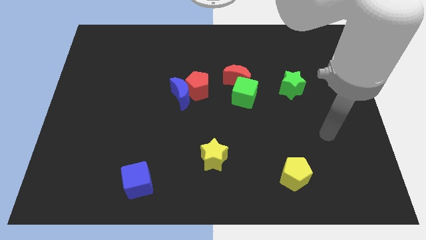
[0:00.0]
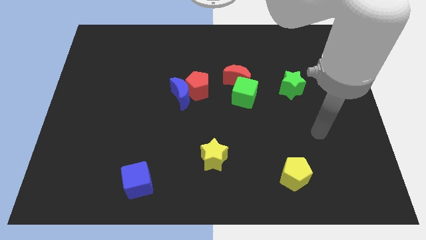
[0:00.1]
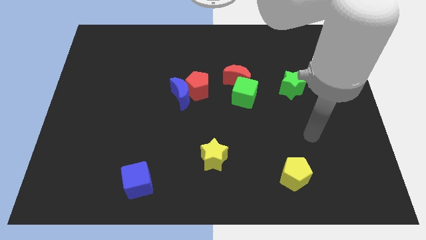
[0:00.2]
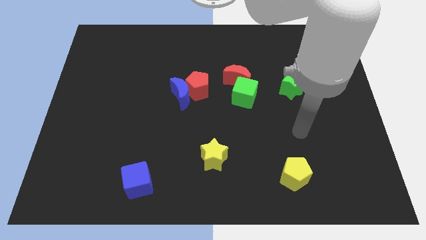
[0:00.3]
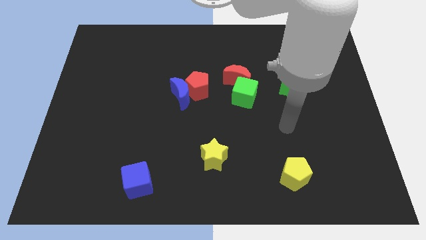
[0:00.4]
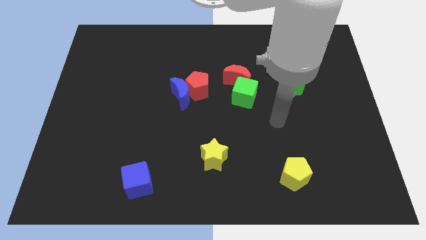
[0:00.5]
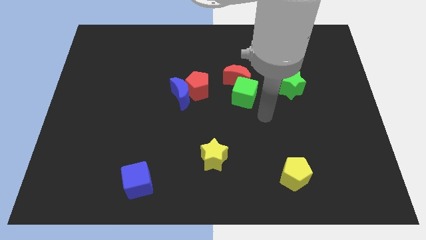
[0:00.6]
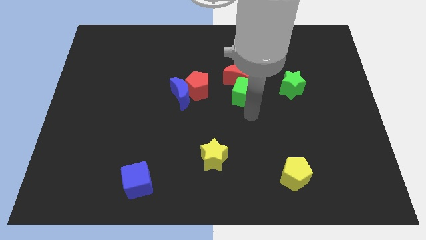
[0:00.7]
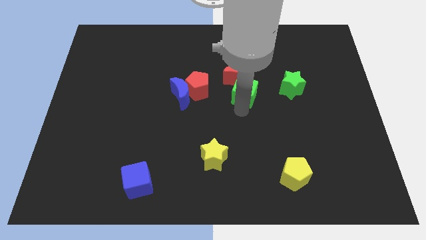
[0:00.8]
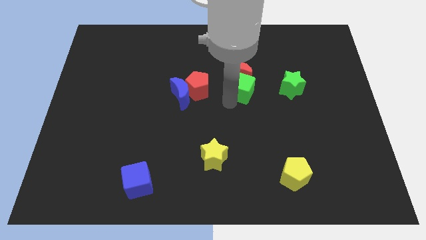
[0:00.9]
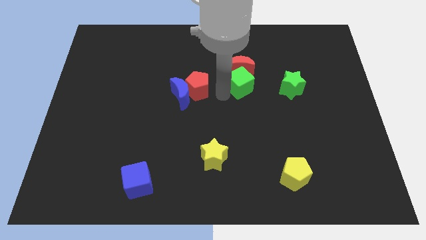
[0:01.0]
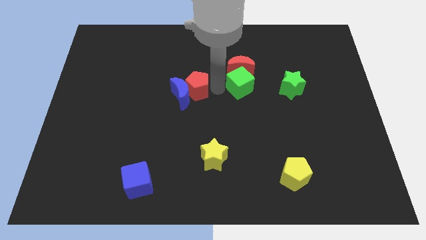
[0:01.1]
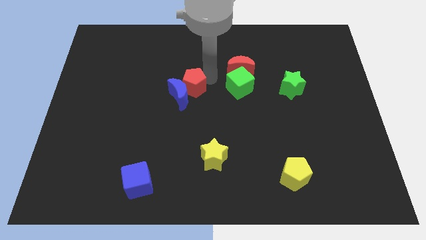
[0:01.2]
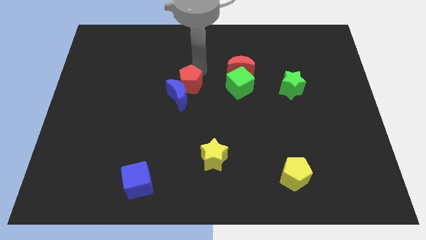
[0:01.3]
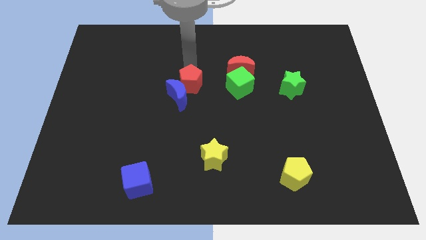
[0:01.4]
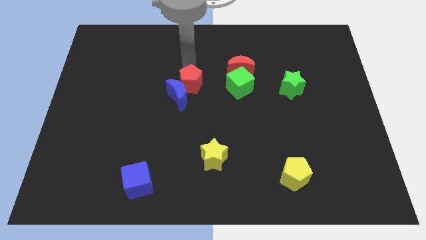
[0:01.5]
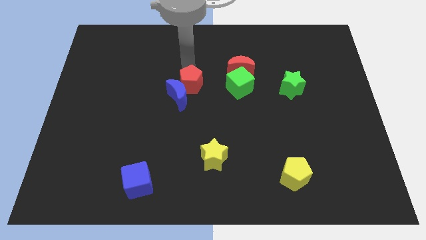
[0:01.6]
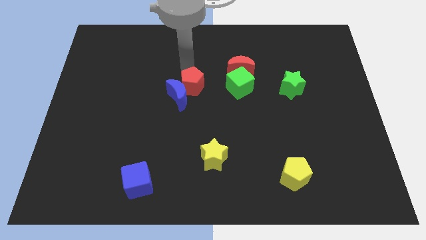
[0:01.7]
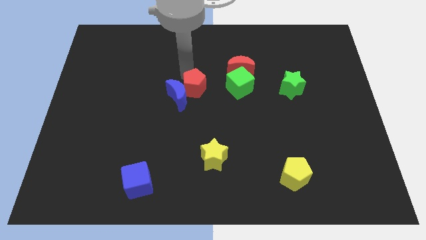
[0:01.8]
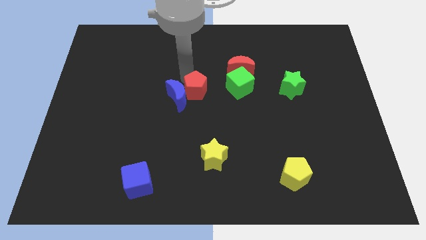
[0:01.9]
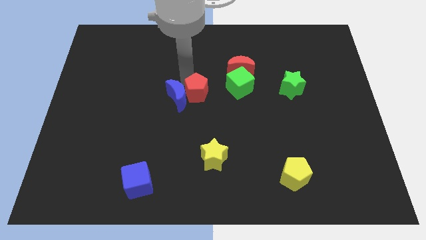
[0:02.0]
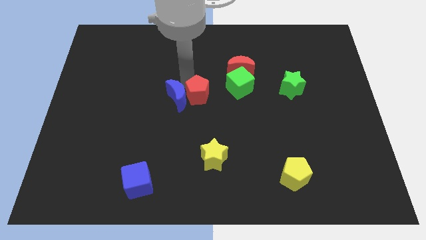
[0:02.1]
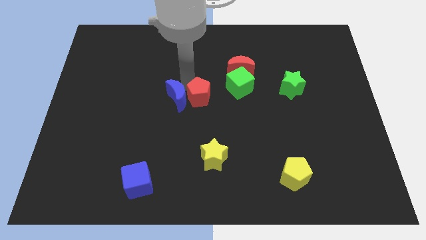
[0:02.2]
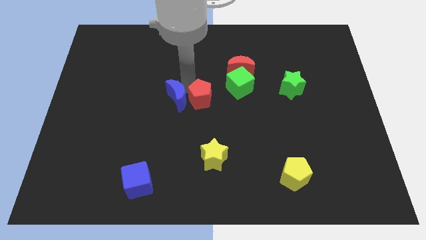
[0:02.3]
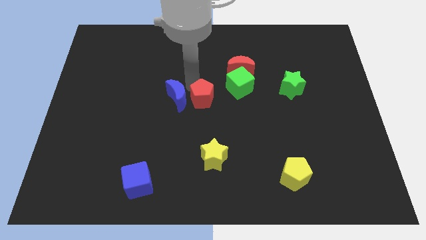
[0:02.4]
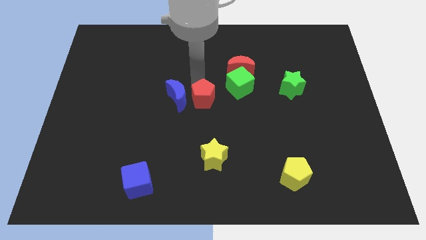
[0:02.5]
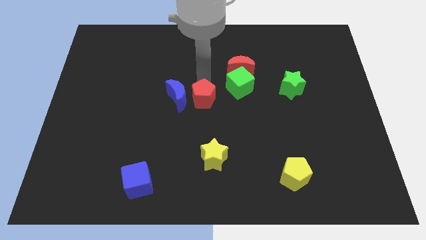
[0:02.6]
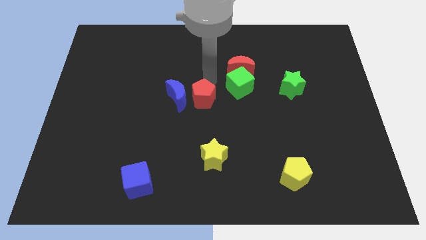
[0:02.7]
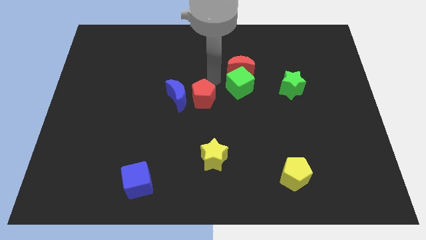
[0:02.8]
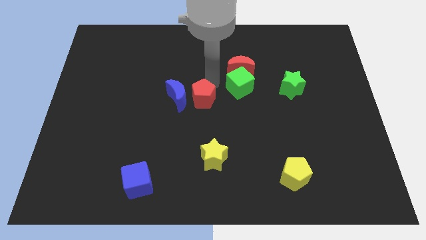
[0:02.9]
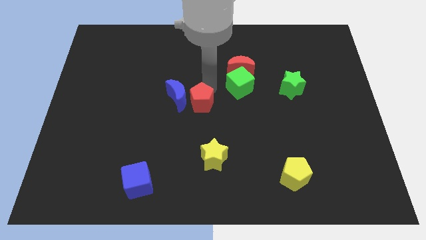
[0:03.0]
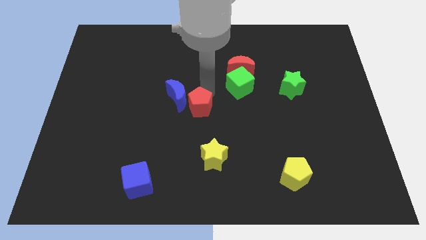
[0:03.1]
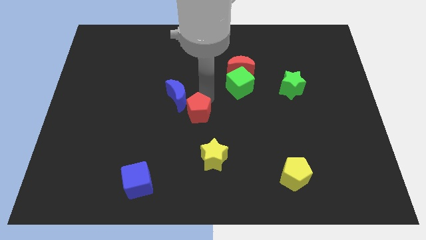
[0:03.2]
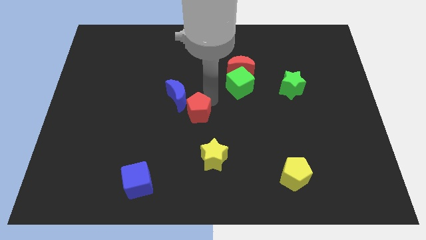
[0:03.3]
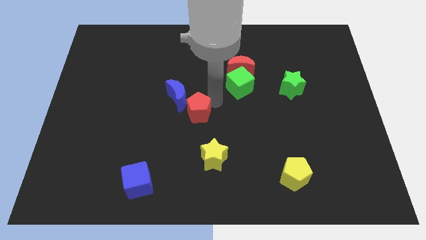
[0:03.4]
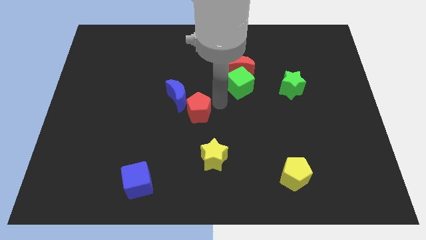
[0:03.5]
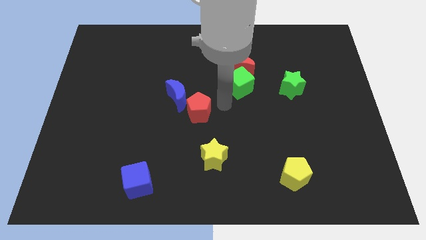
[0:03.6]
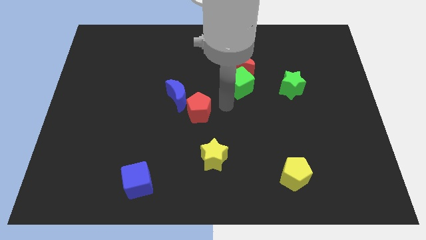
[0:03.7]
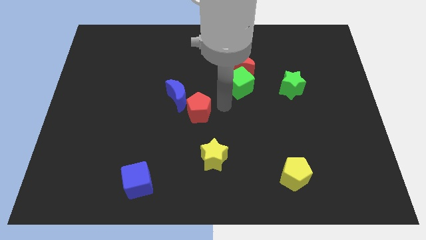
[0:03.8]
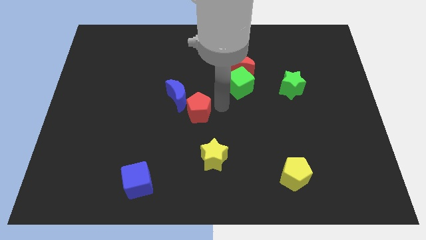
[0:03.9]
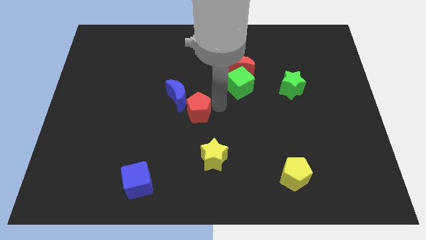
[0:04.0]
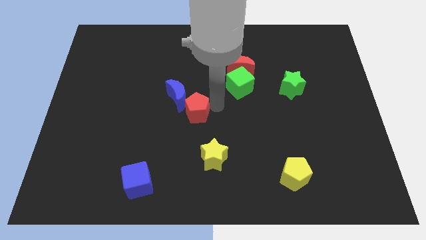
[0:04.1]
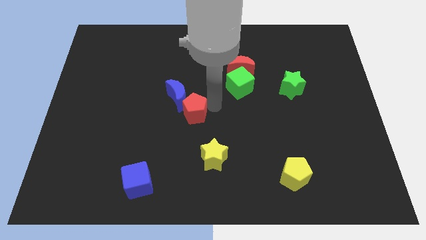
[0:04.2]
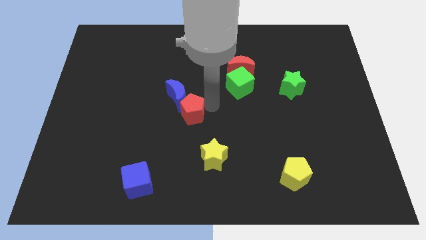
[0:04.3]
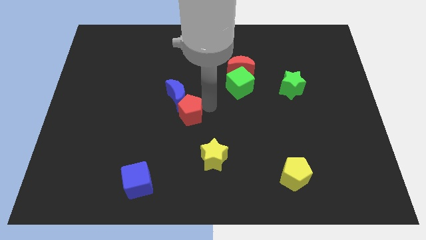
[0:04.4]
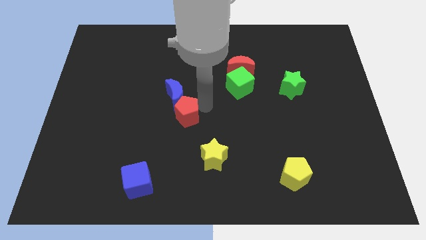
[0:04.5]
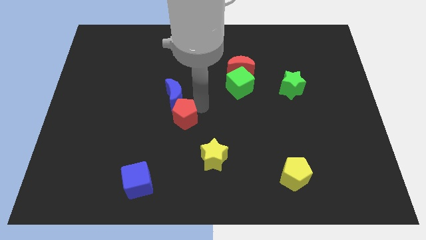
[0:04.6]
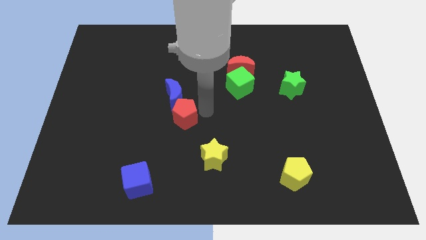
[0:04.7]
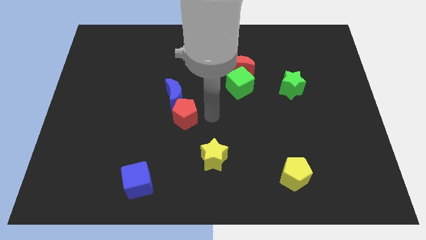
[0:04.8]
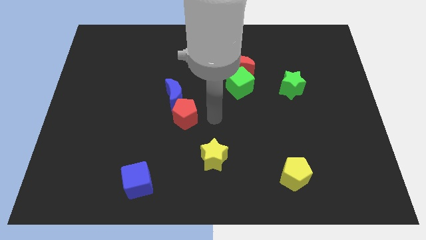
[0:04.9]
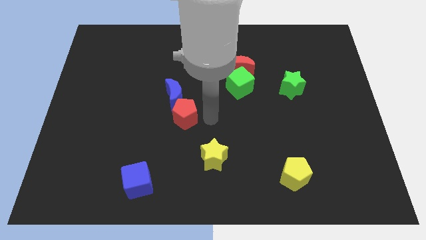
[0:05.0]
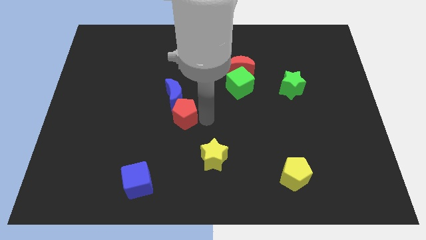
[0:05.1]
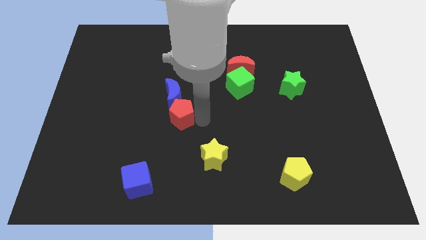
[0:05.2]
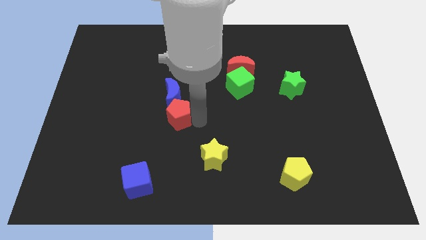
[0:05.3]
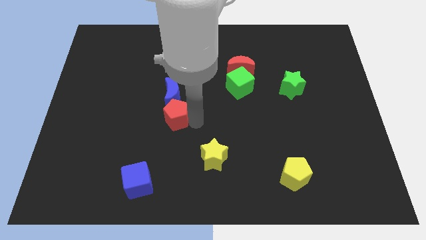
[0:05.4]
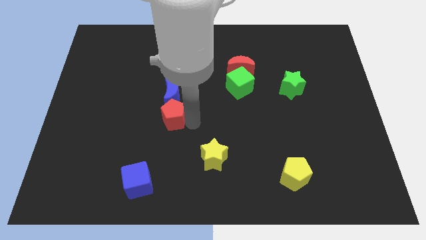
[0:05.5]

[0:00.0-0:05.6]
slide the red pentagon to the bottom left side of the blue moon

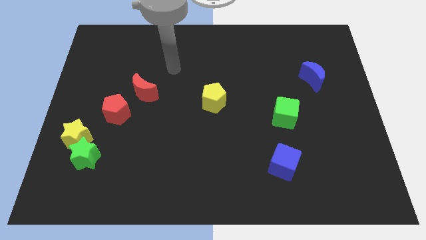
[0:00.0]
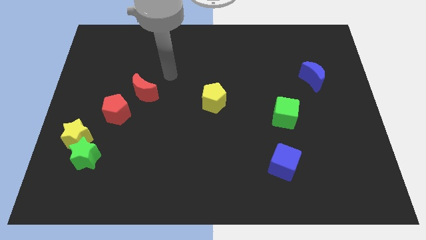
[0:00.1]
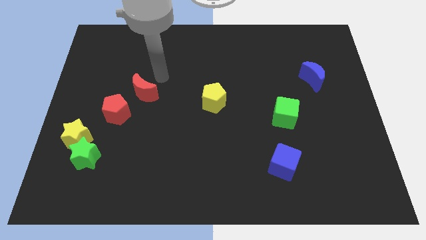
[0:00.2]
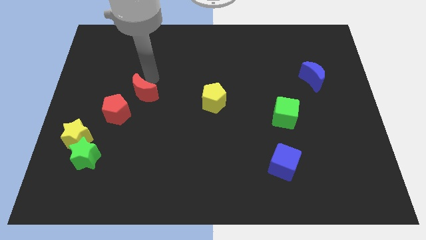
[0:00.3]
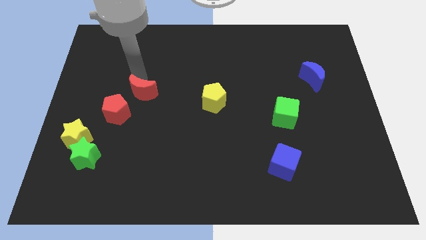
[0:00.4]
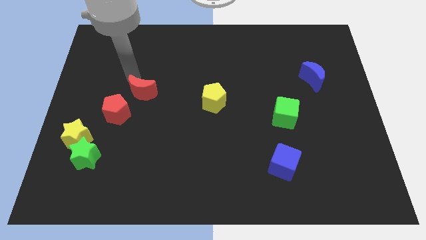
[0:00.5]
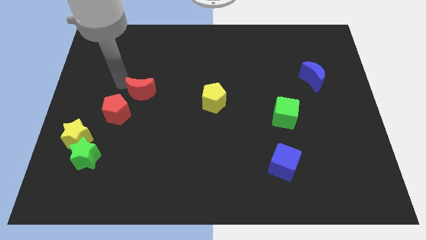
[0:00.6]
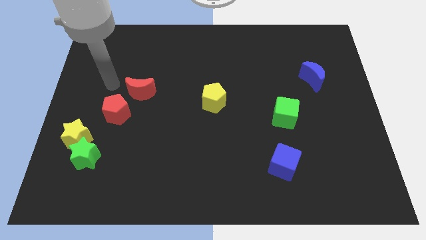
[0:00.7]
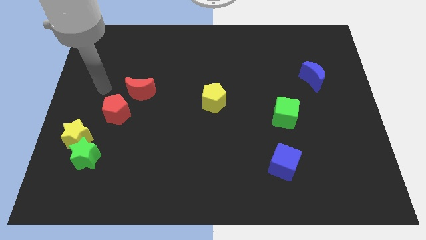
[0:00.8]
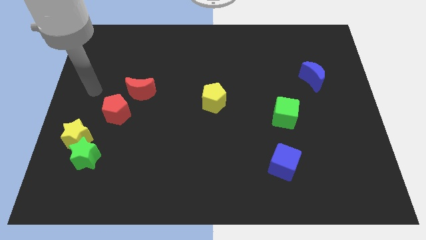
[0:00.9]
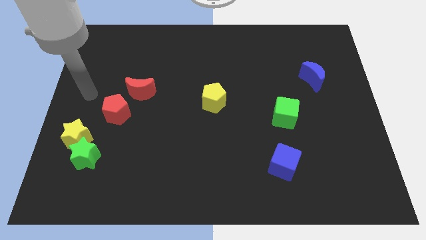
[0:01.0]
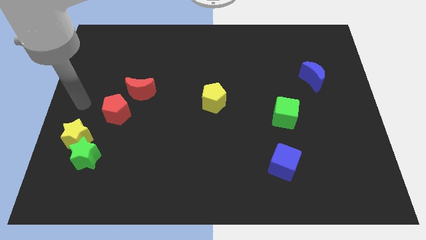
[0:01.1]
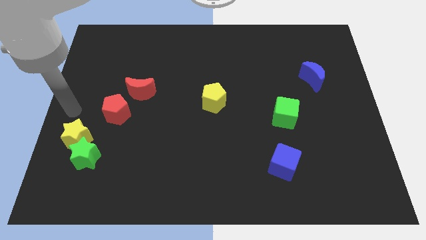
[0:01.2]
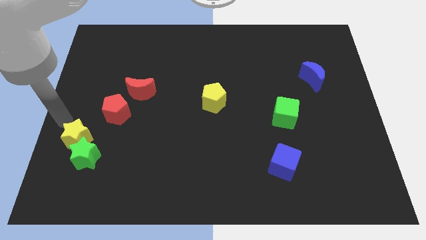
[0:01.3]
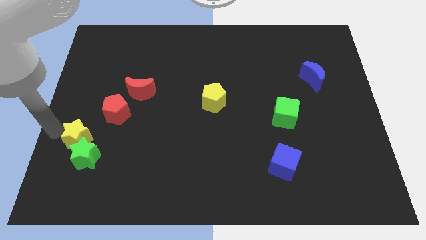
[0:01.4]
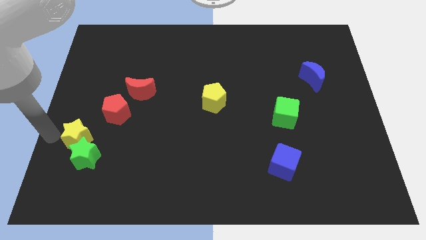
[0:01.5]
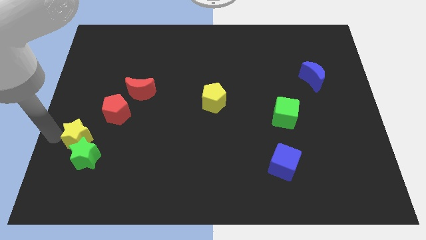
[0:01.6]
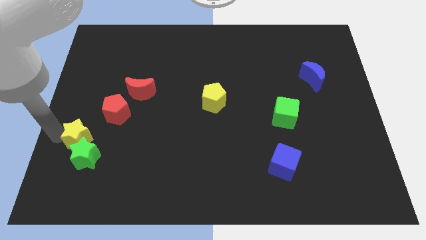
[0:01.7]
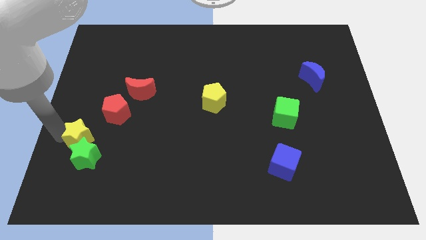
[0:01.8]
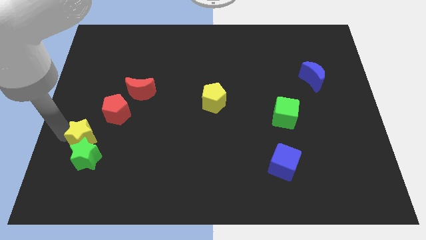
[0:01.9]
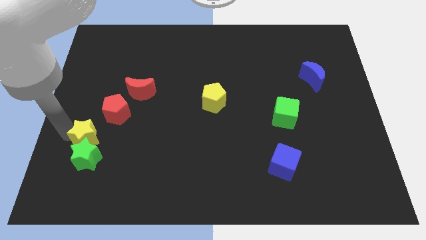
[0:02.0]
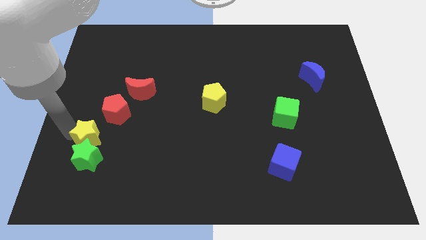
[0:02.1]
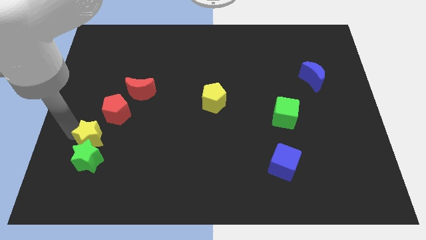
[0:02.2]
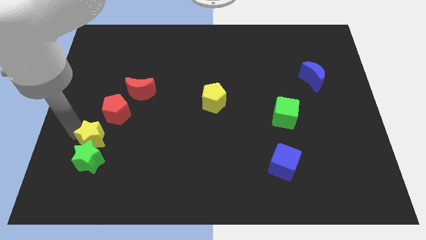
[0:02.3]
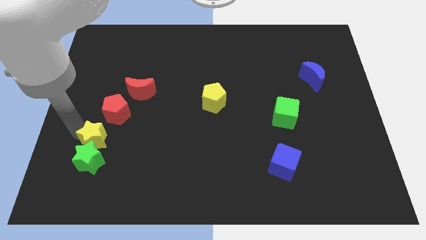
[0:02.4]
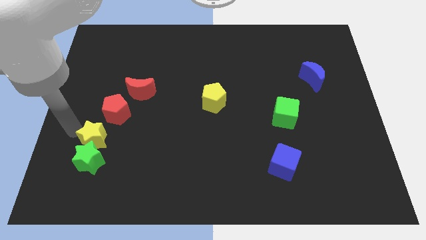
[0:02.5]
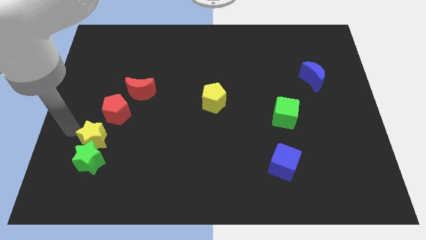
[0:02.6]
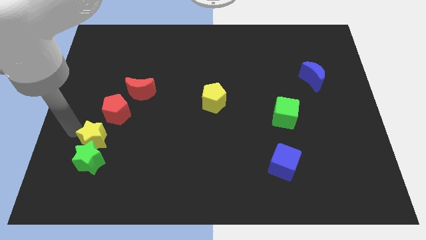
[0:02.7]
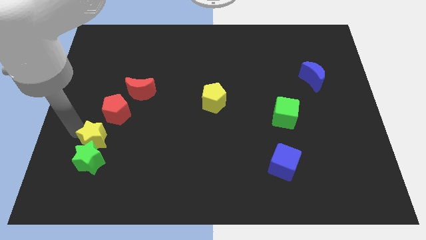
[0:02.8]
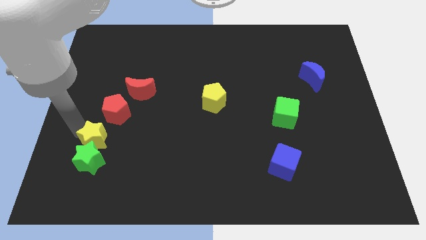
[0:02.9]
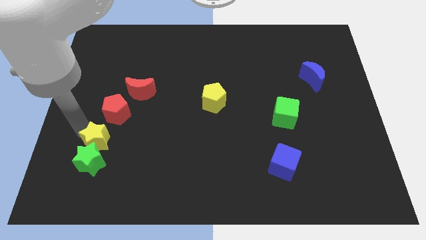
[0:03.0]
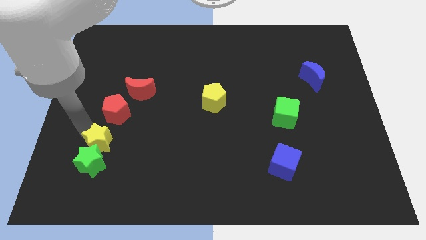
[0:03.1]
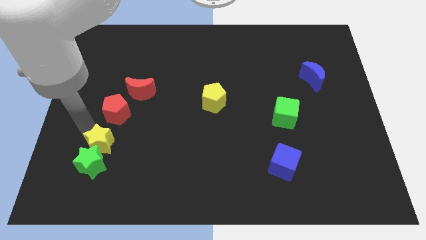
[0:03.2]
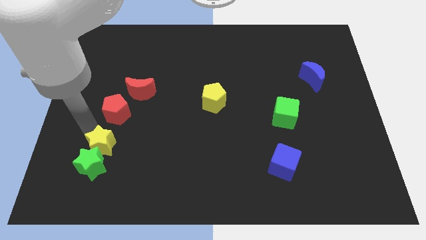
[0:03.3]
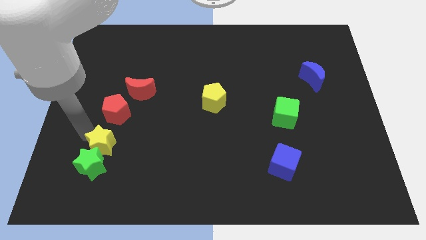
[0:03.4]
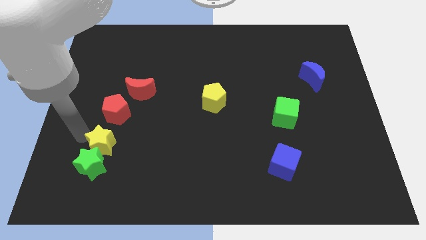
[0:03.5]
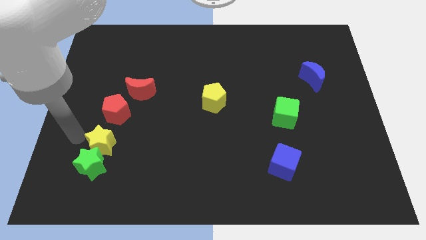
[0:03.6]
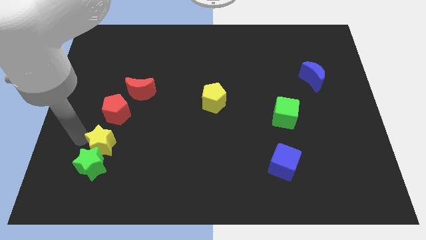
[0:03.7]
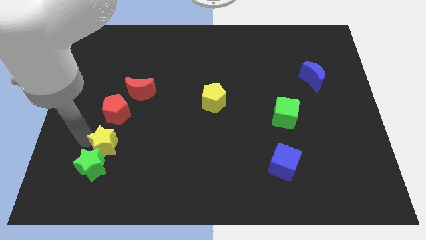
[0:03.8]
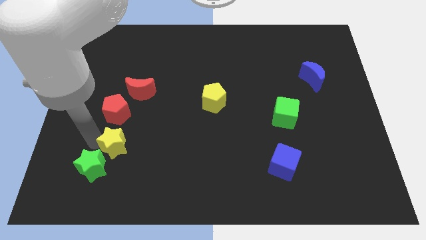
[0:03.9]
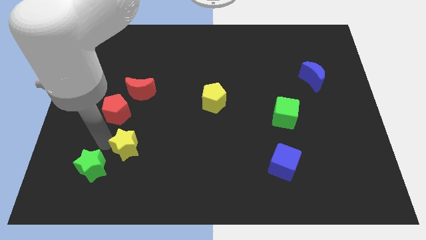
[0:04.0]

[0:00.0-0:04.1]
slide the yellow star to the right of the green star
